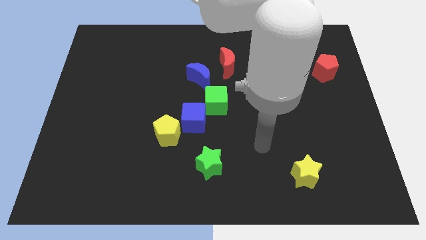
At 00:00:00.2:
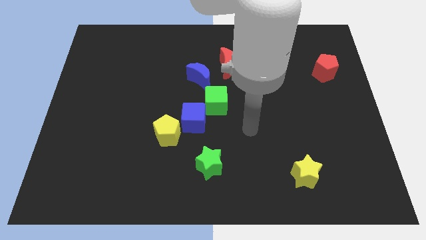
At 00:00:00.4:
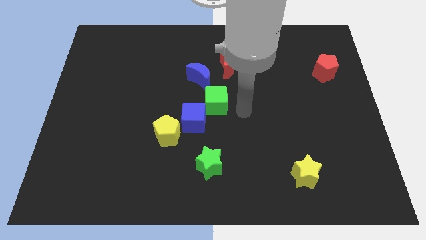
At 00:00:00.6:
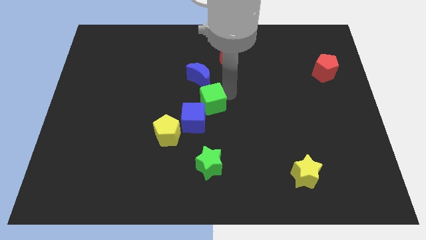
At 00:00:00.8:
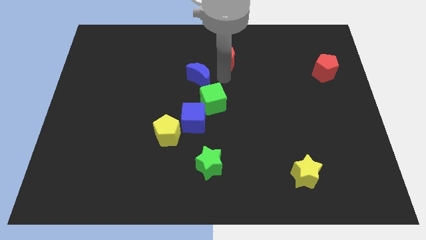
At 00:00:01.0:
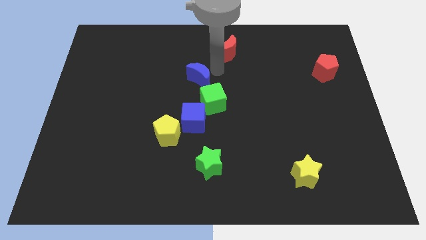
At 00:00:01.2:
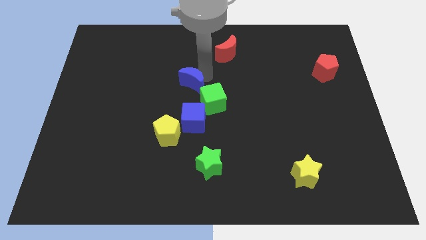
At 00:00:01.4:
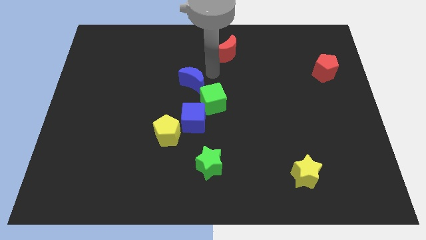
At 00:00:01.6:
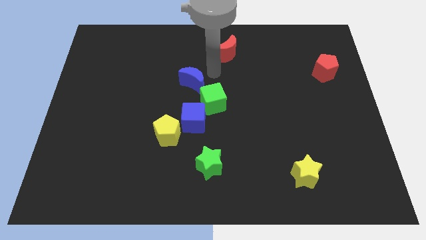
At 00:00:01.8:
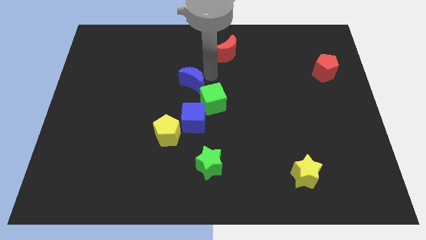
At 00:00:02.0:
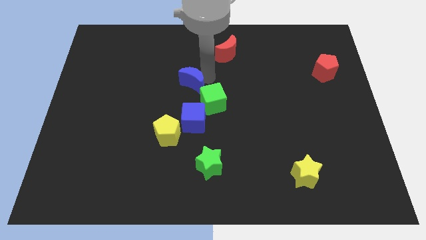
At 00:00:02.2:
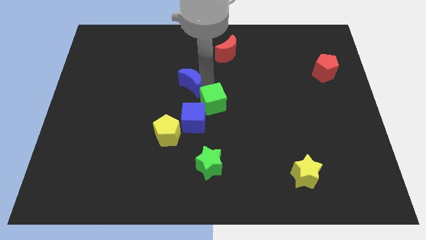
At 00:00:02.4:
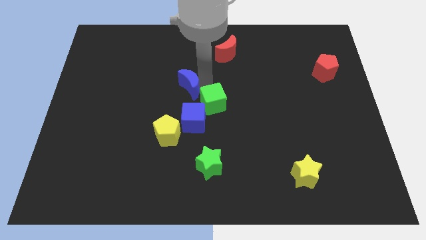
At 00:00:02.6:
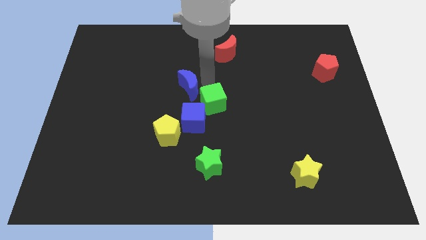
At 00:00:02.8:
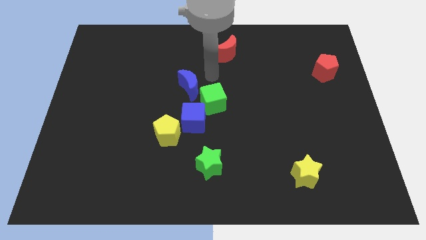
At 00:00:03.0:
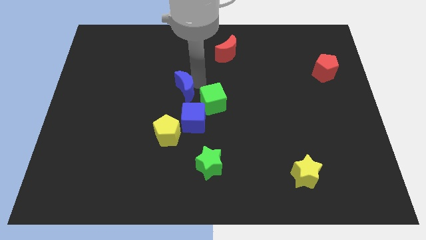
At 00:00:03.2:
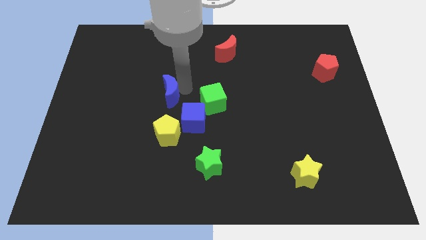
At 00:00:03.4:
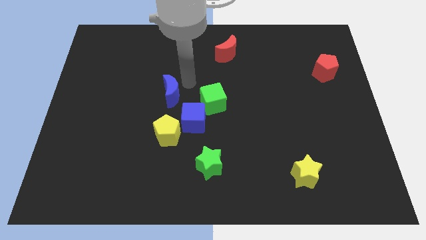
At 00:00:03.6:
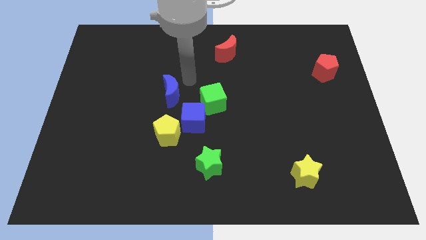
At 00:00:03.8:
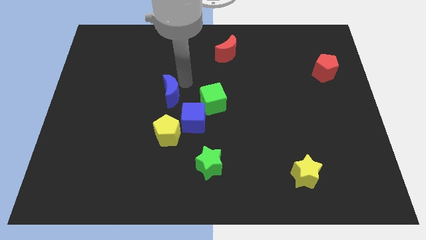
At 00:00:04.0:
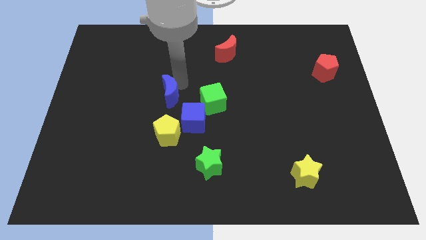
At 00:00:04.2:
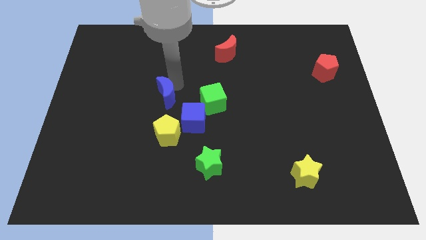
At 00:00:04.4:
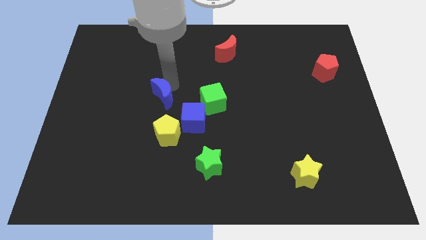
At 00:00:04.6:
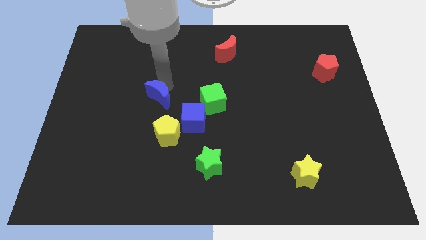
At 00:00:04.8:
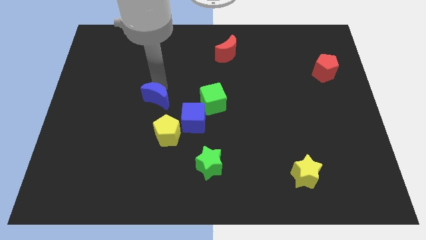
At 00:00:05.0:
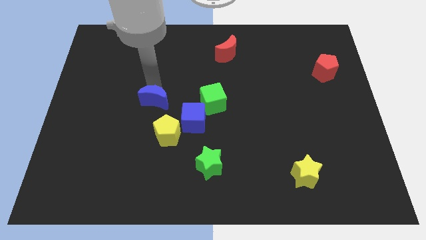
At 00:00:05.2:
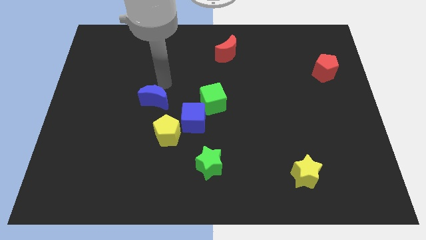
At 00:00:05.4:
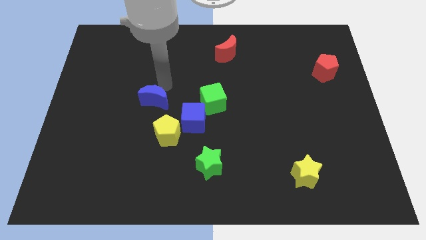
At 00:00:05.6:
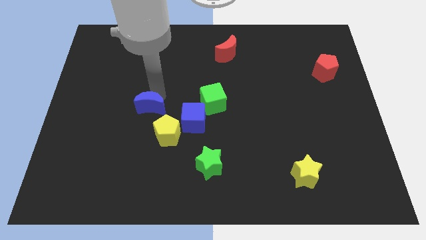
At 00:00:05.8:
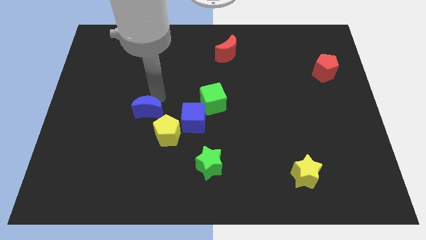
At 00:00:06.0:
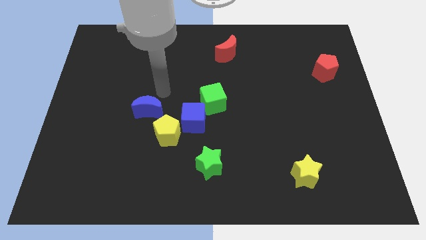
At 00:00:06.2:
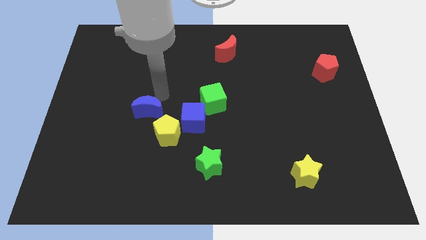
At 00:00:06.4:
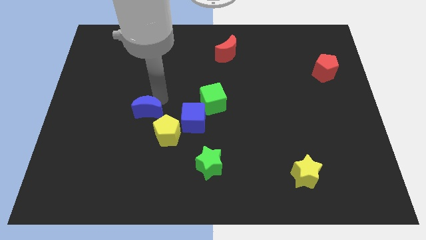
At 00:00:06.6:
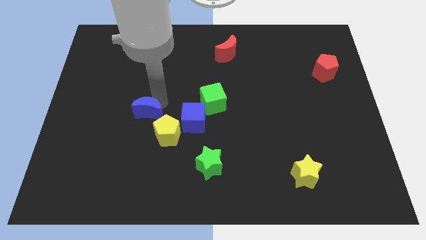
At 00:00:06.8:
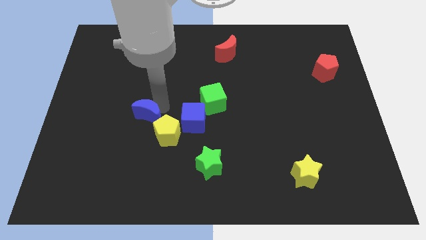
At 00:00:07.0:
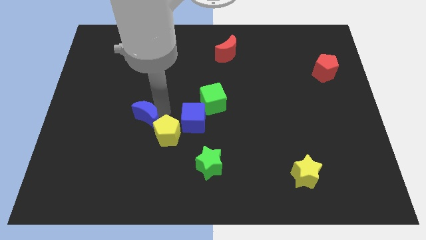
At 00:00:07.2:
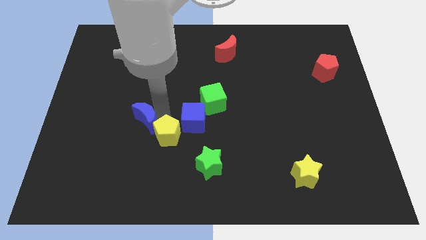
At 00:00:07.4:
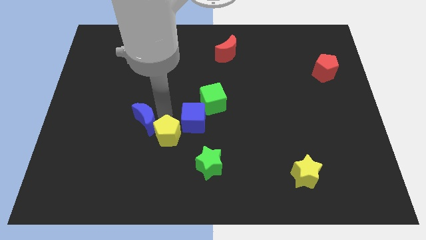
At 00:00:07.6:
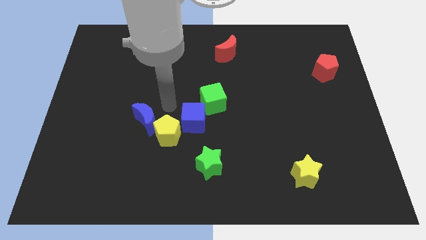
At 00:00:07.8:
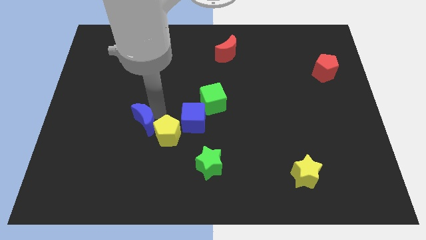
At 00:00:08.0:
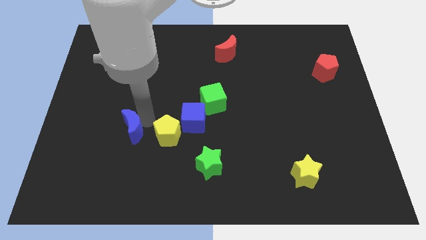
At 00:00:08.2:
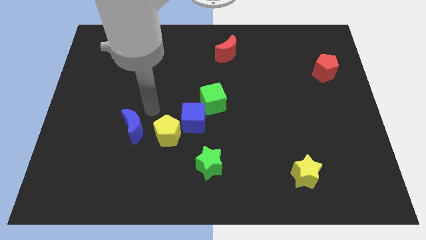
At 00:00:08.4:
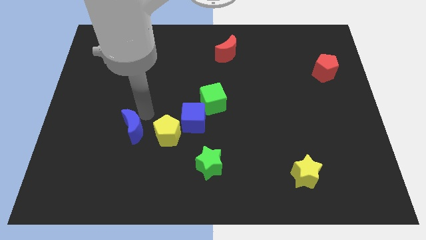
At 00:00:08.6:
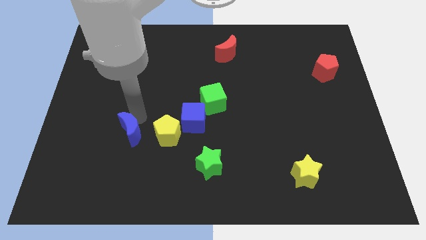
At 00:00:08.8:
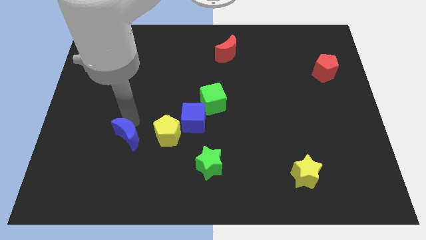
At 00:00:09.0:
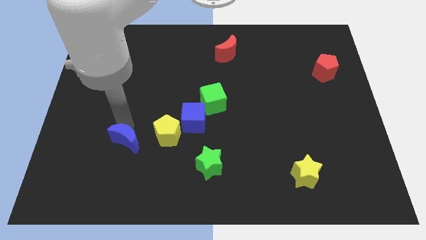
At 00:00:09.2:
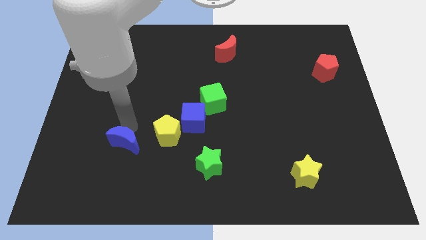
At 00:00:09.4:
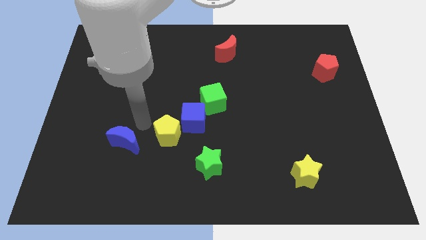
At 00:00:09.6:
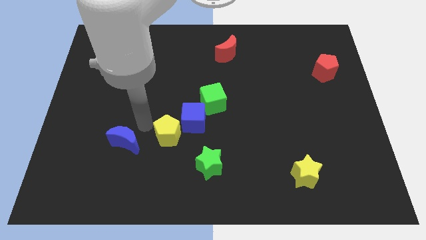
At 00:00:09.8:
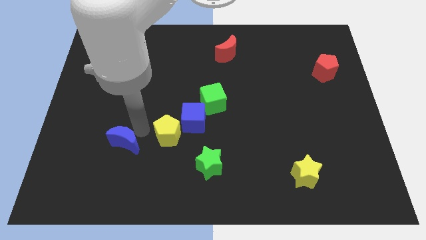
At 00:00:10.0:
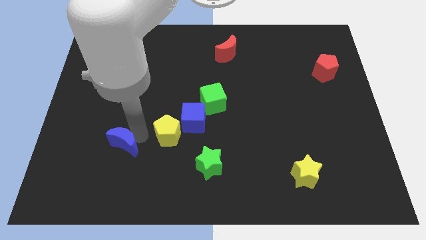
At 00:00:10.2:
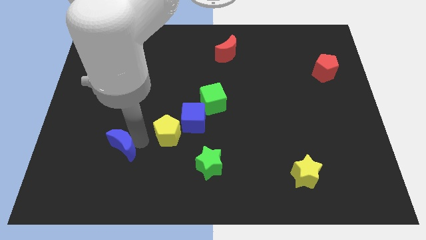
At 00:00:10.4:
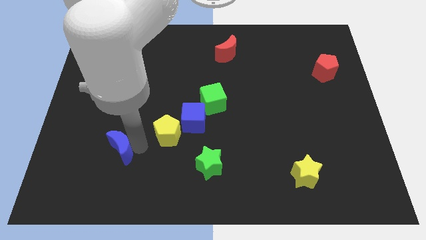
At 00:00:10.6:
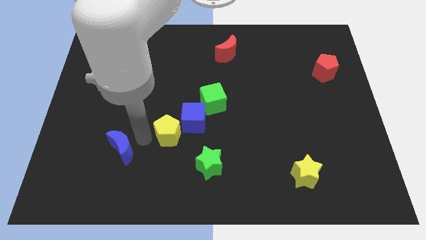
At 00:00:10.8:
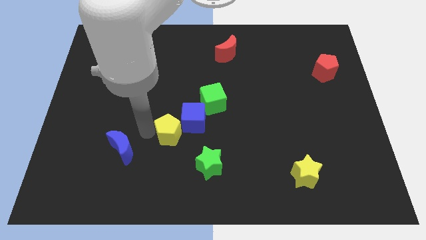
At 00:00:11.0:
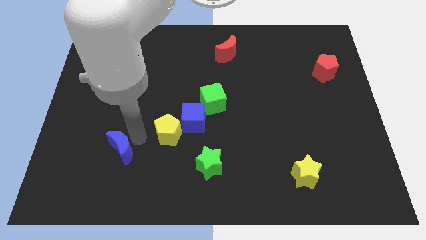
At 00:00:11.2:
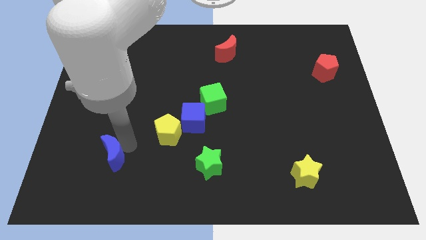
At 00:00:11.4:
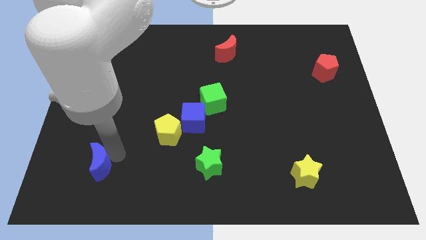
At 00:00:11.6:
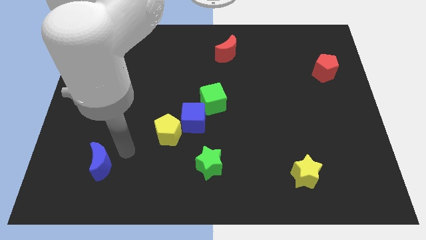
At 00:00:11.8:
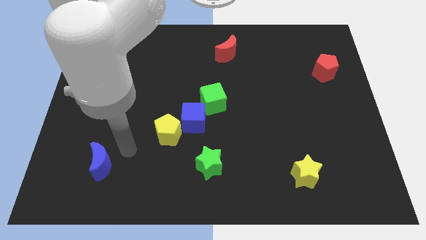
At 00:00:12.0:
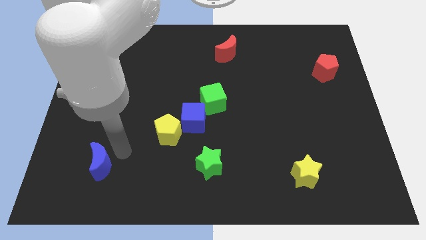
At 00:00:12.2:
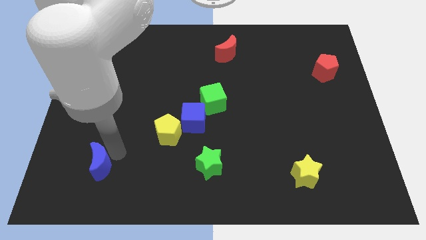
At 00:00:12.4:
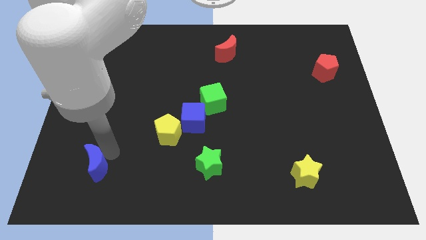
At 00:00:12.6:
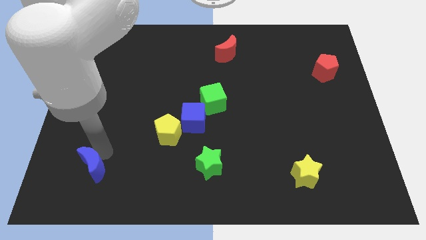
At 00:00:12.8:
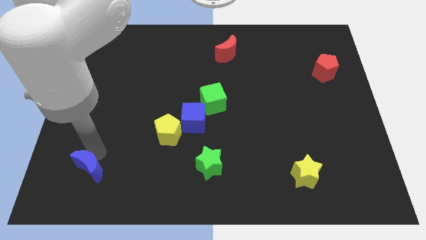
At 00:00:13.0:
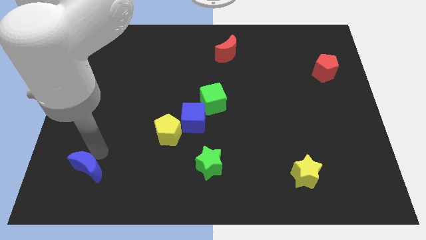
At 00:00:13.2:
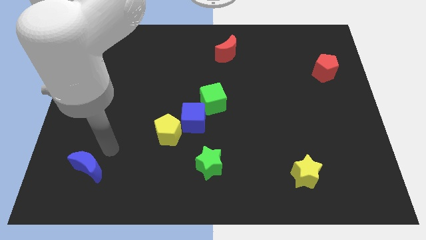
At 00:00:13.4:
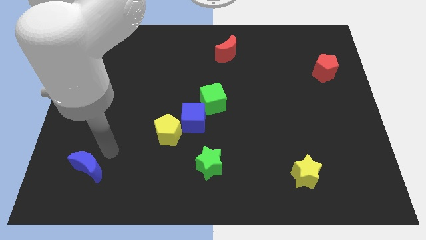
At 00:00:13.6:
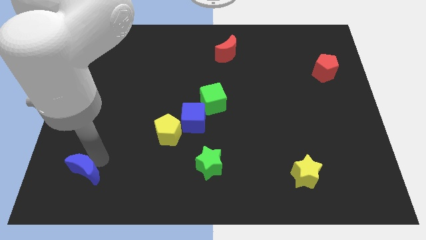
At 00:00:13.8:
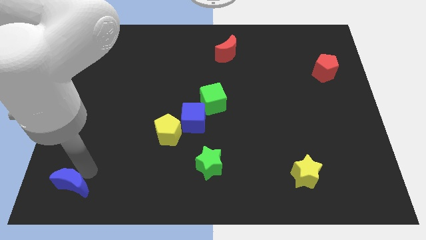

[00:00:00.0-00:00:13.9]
move the blue moon to the bottom left of the board
